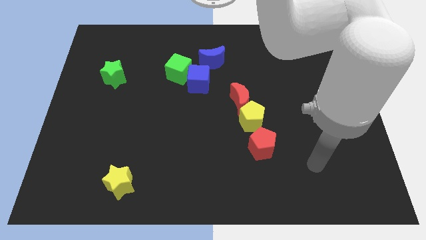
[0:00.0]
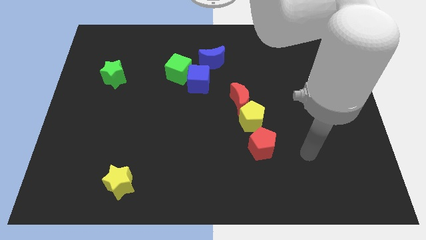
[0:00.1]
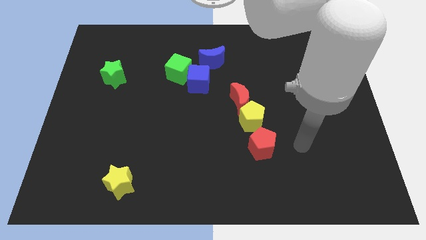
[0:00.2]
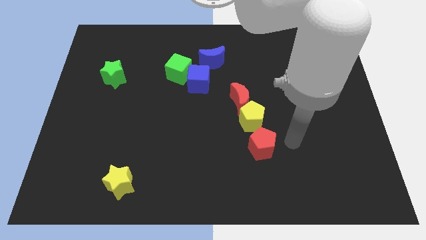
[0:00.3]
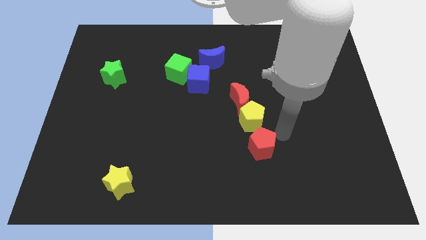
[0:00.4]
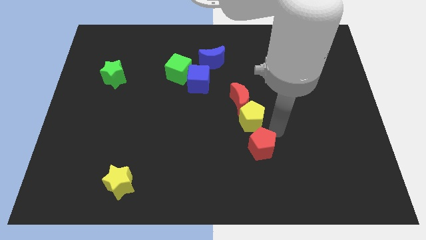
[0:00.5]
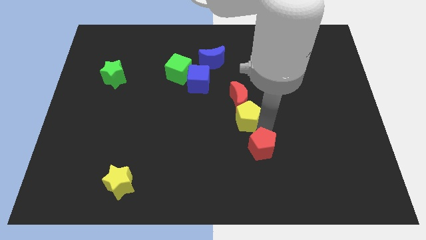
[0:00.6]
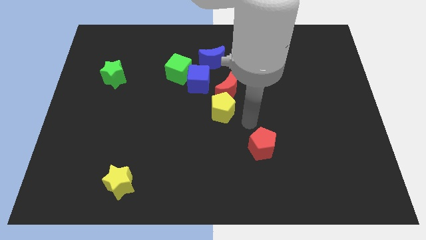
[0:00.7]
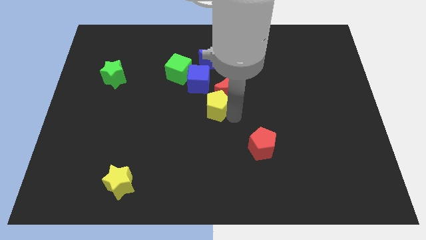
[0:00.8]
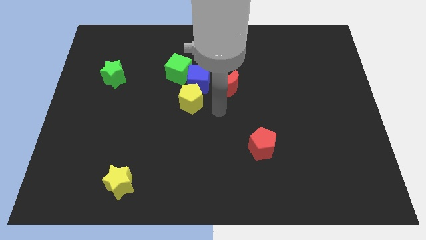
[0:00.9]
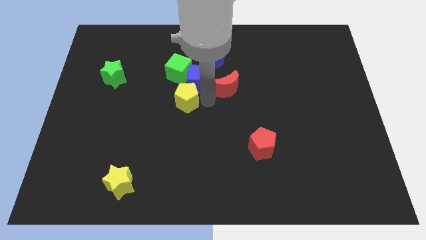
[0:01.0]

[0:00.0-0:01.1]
move the red moon away from the yellow pentagon

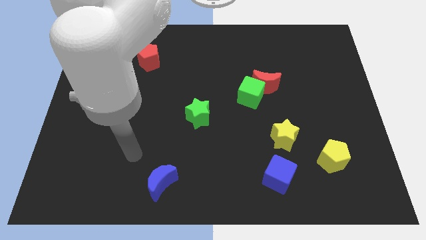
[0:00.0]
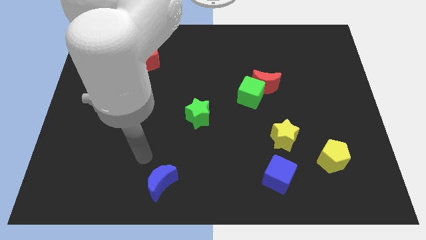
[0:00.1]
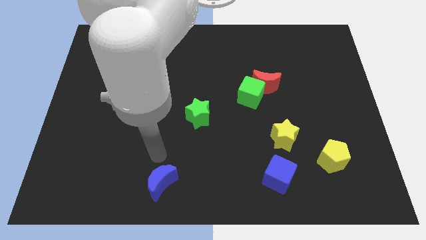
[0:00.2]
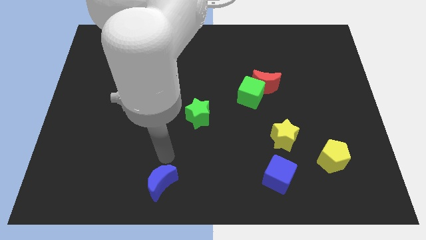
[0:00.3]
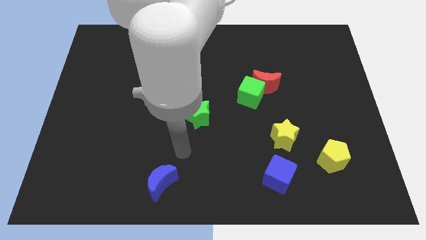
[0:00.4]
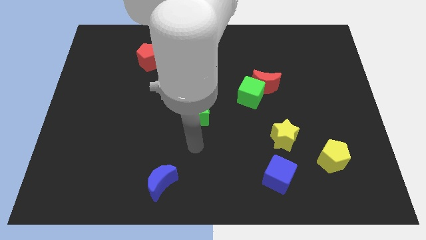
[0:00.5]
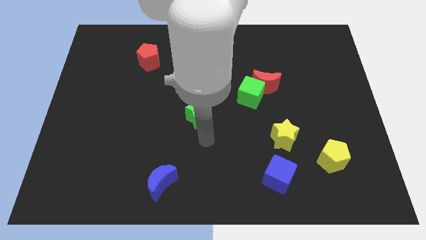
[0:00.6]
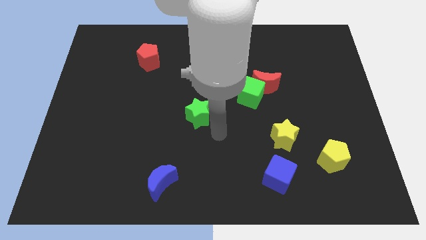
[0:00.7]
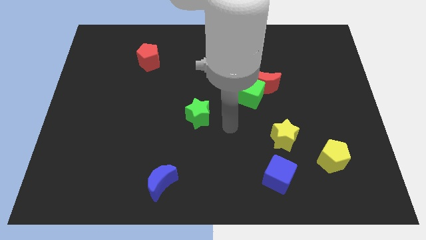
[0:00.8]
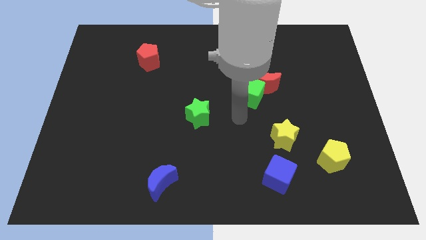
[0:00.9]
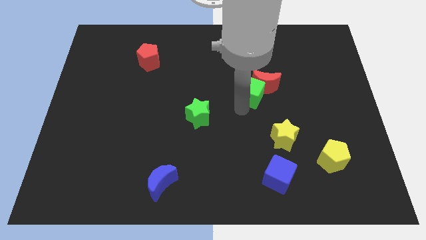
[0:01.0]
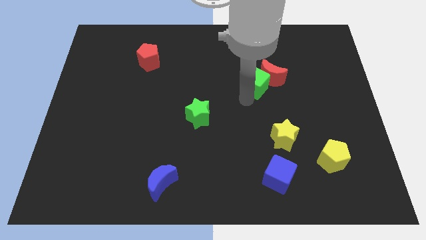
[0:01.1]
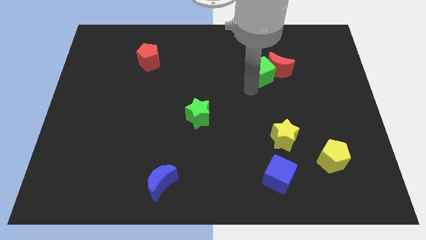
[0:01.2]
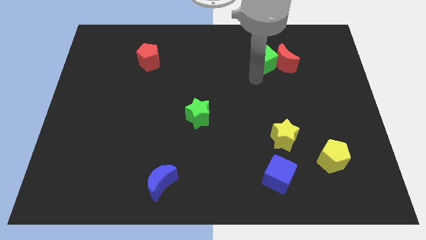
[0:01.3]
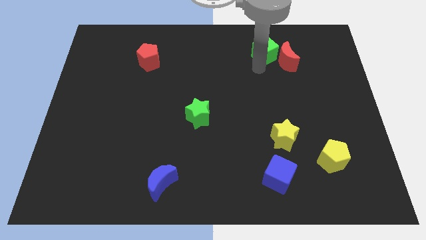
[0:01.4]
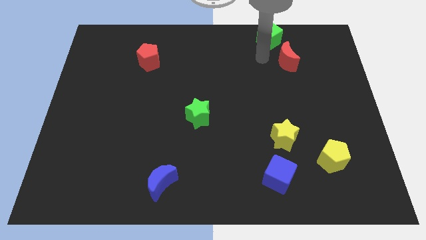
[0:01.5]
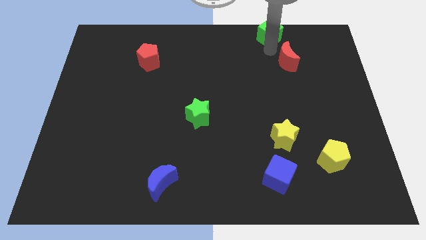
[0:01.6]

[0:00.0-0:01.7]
separate the red moon from the green cube

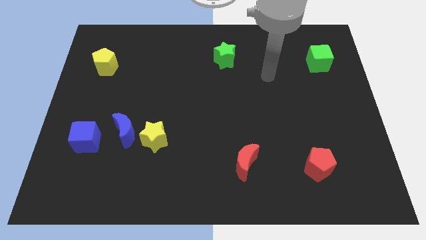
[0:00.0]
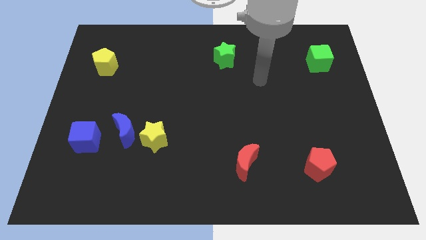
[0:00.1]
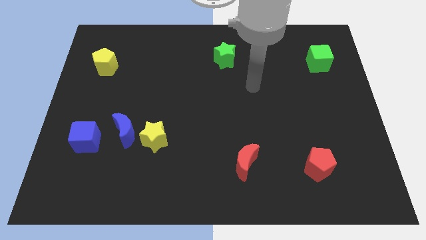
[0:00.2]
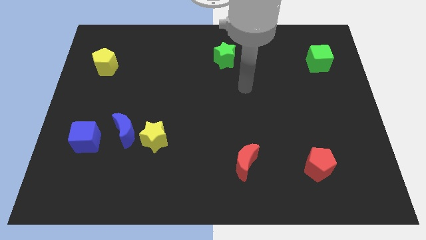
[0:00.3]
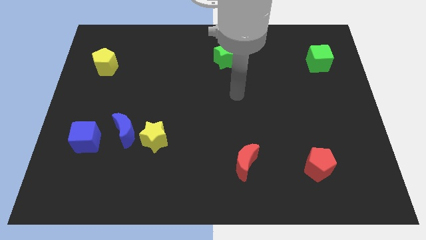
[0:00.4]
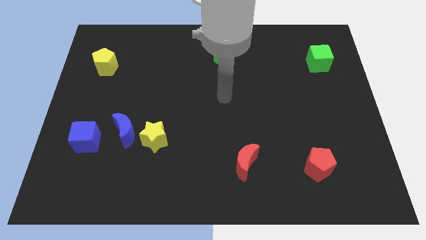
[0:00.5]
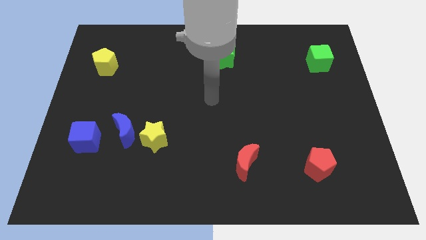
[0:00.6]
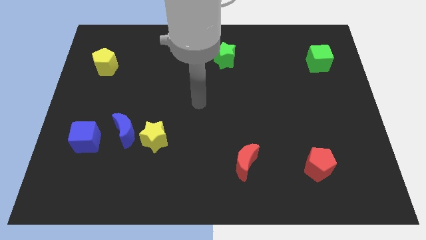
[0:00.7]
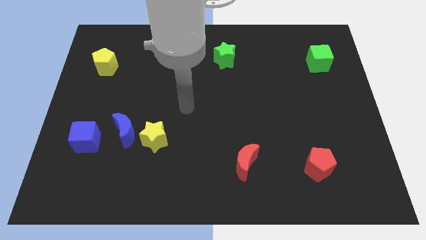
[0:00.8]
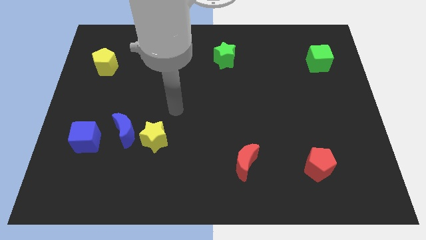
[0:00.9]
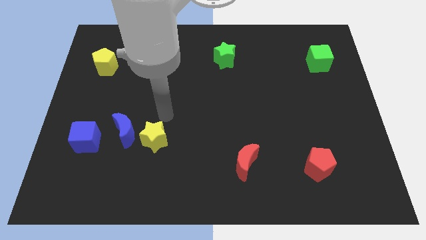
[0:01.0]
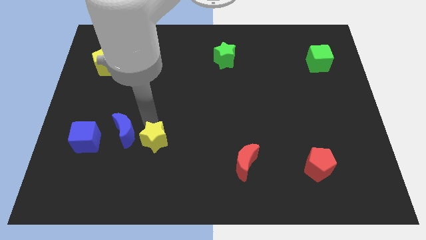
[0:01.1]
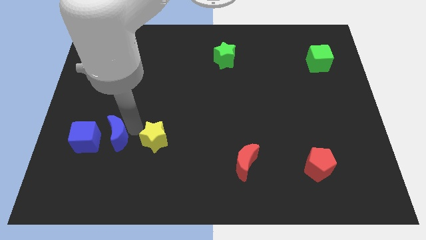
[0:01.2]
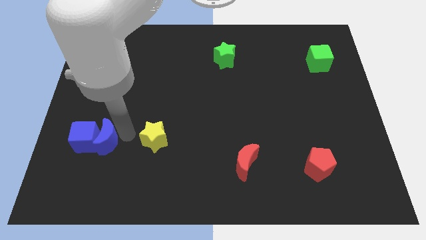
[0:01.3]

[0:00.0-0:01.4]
pull the yellow star apart from the blue moon

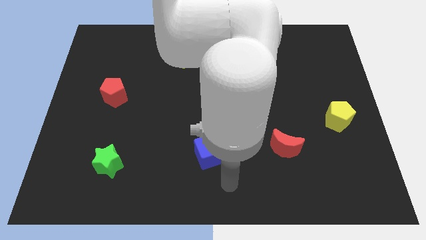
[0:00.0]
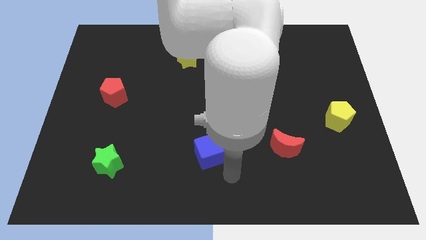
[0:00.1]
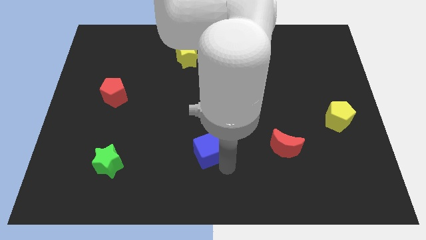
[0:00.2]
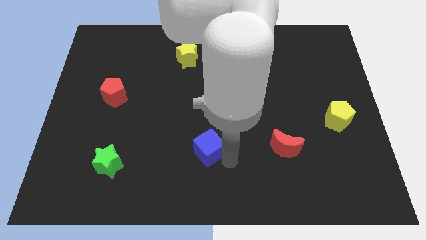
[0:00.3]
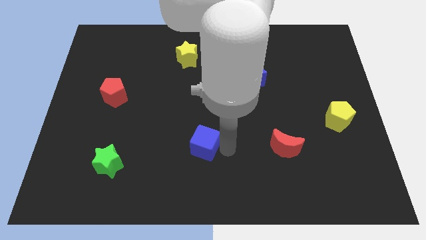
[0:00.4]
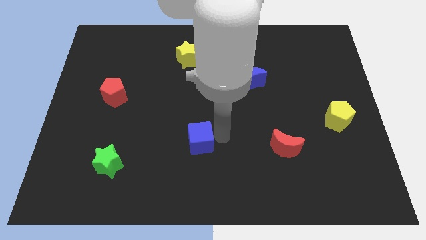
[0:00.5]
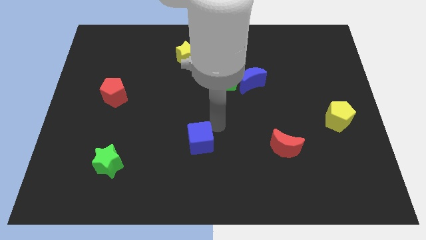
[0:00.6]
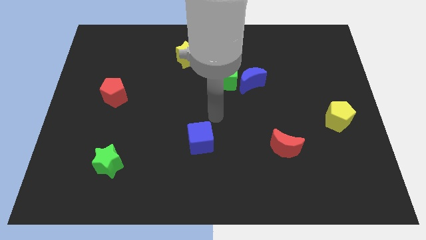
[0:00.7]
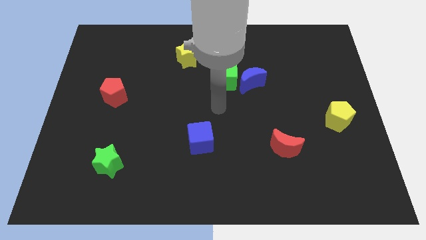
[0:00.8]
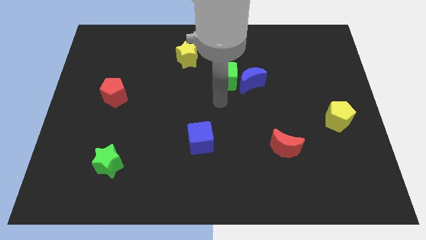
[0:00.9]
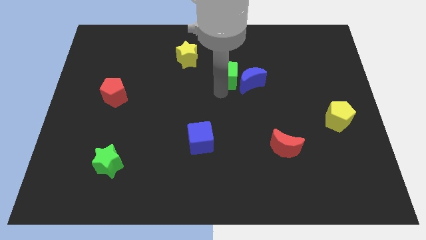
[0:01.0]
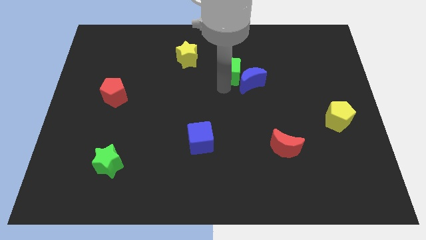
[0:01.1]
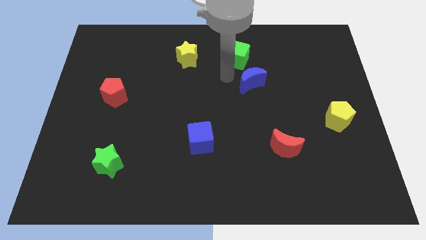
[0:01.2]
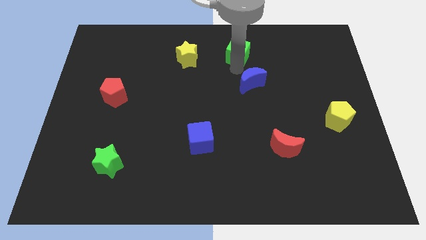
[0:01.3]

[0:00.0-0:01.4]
move the blue moon away from the green cube

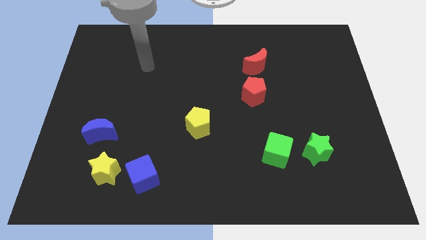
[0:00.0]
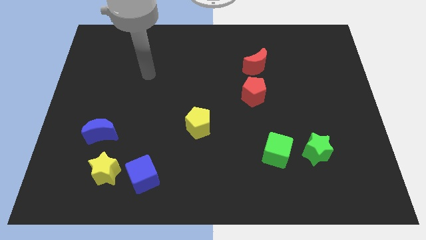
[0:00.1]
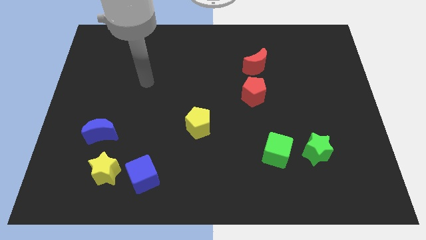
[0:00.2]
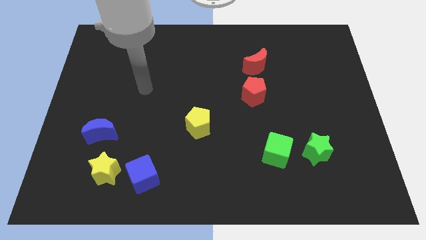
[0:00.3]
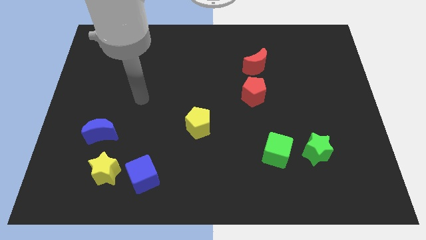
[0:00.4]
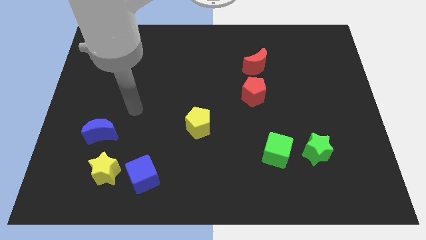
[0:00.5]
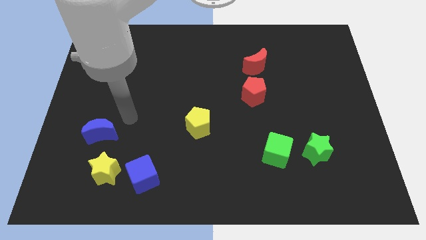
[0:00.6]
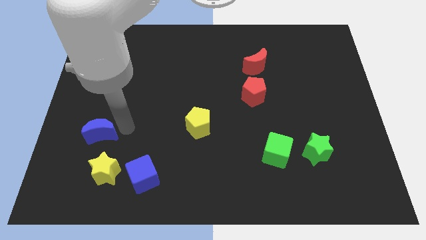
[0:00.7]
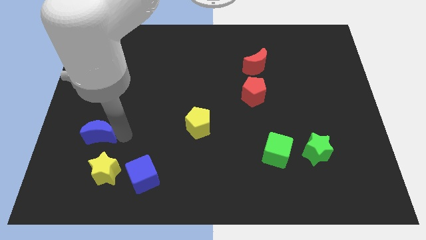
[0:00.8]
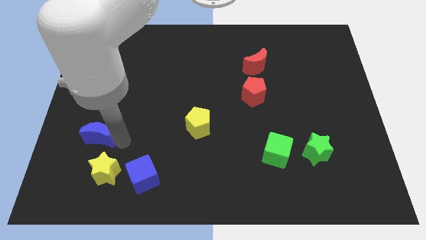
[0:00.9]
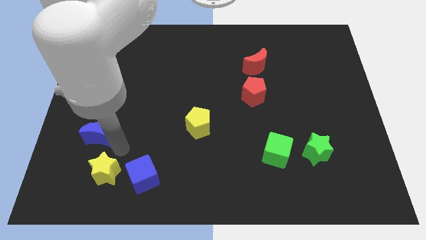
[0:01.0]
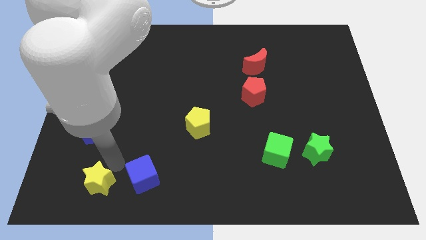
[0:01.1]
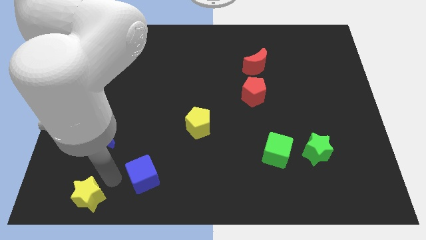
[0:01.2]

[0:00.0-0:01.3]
pull the blue cube apart from the yellow star

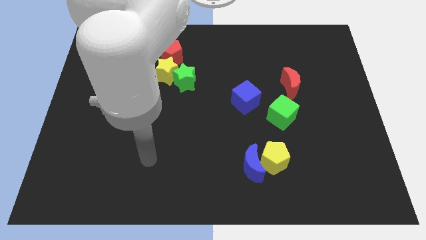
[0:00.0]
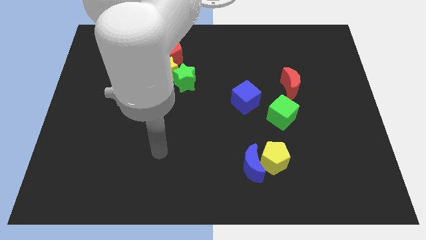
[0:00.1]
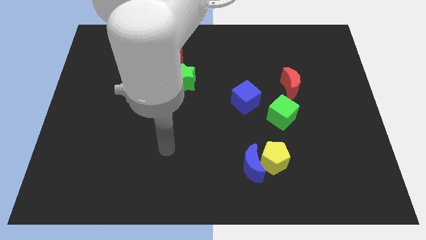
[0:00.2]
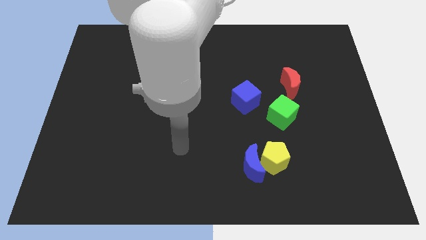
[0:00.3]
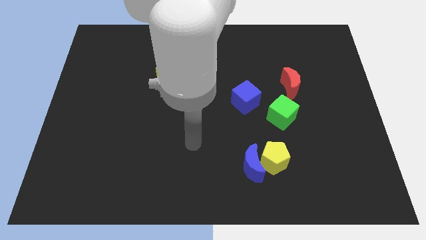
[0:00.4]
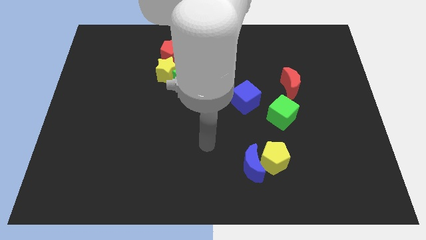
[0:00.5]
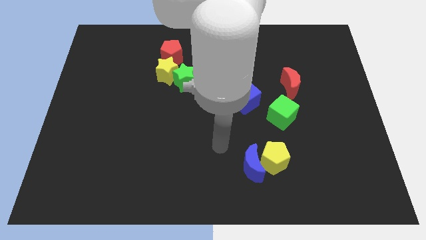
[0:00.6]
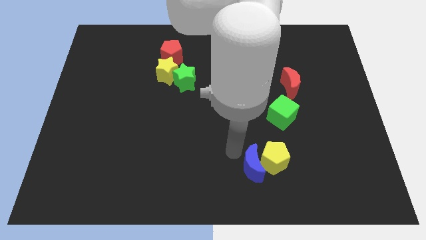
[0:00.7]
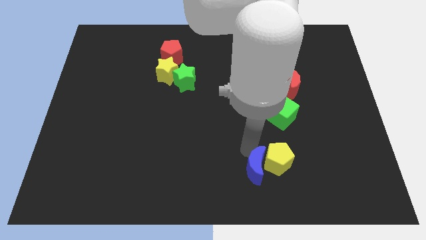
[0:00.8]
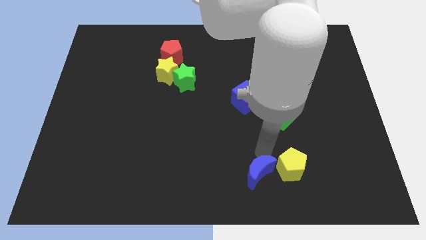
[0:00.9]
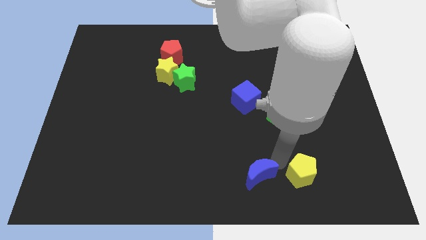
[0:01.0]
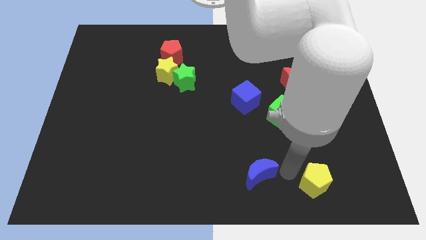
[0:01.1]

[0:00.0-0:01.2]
separate the blue moon from the yellow pentagon

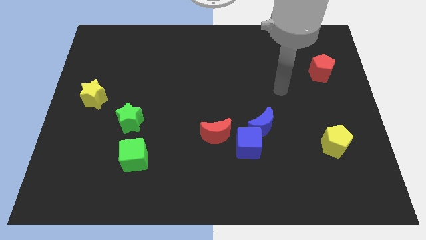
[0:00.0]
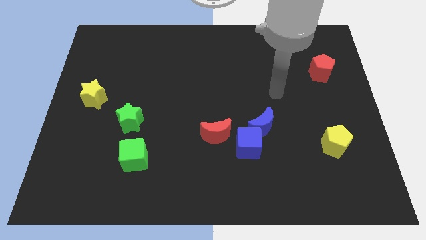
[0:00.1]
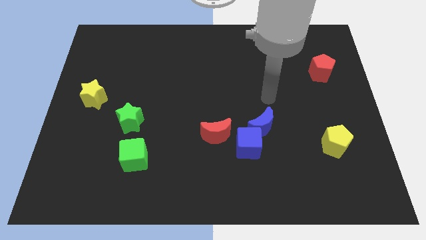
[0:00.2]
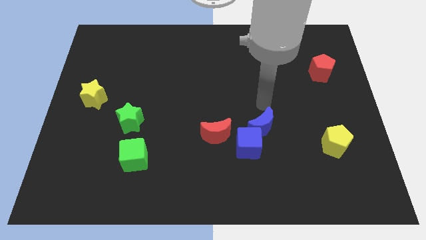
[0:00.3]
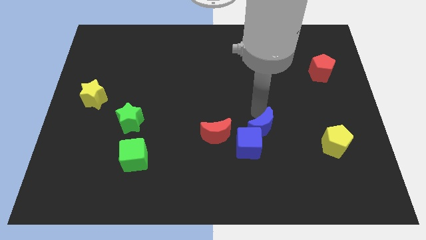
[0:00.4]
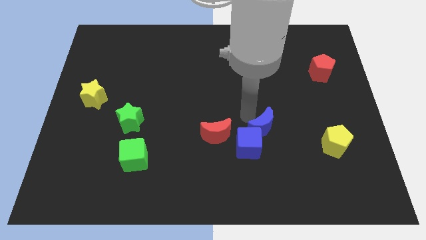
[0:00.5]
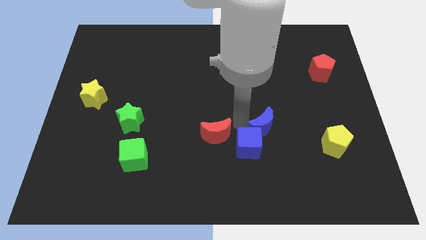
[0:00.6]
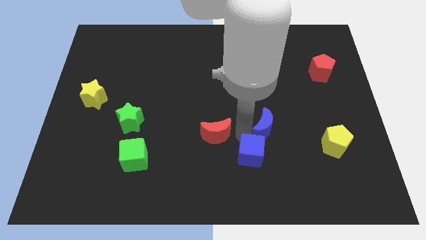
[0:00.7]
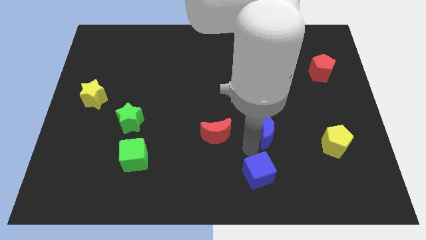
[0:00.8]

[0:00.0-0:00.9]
pull the blue moon apart from the blue cube

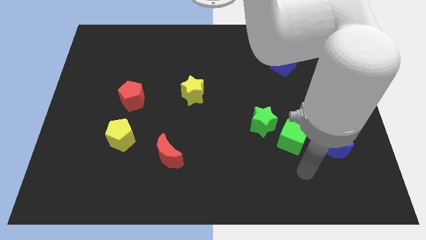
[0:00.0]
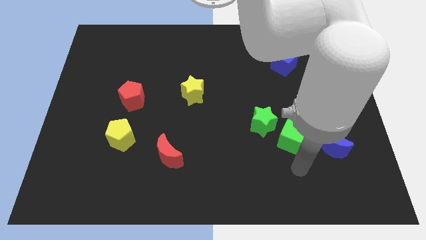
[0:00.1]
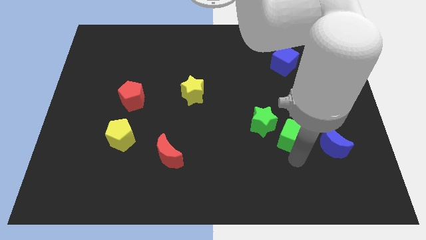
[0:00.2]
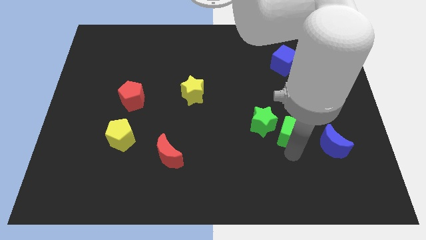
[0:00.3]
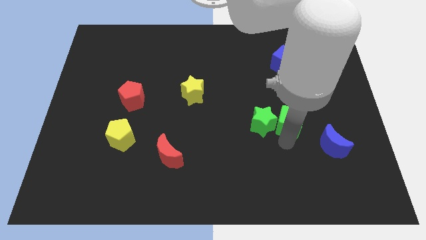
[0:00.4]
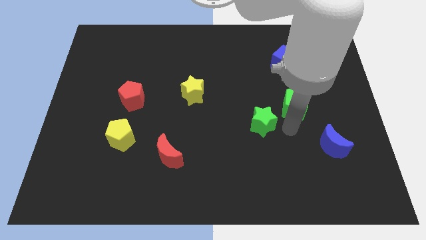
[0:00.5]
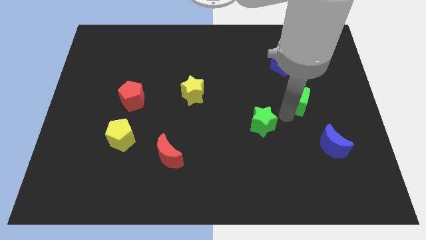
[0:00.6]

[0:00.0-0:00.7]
pull the green star apart from the green cube
